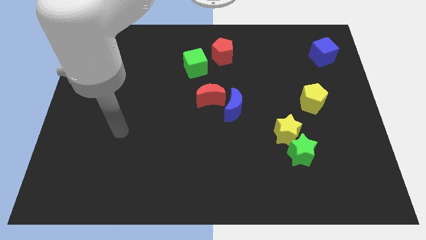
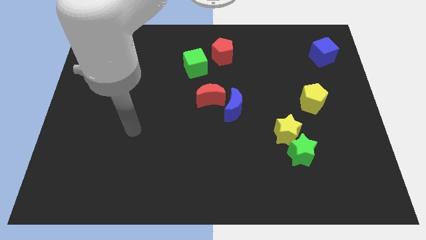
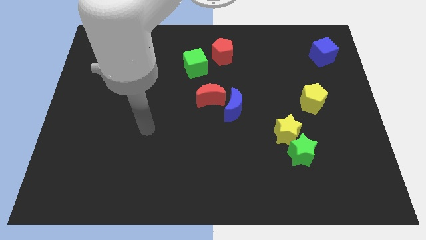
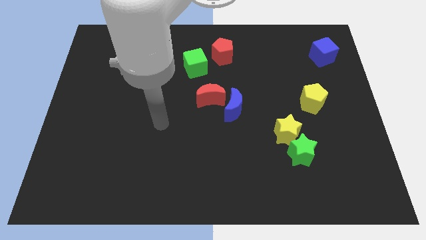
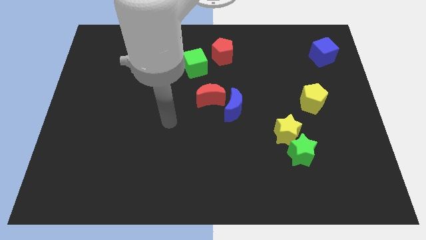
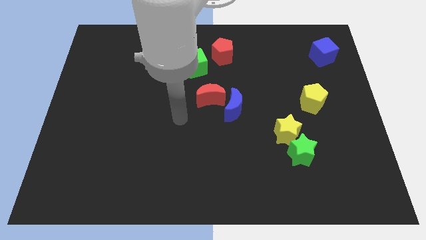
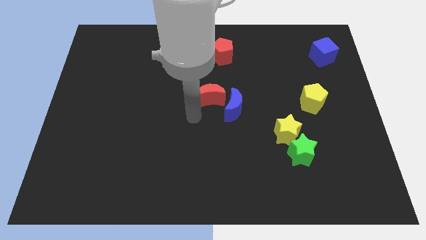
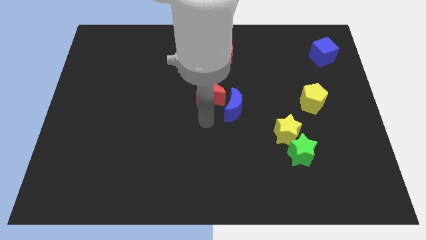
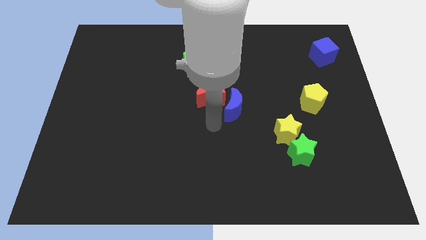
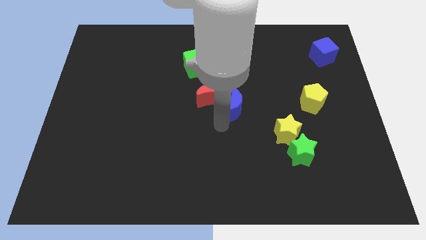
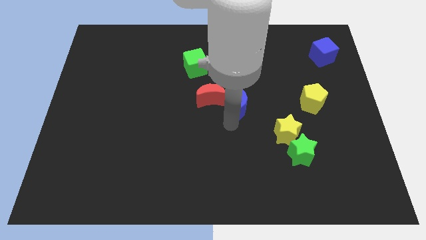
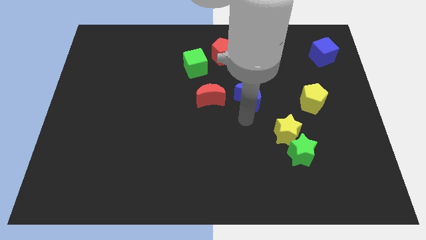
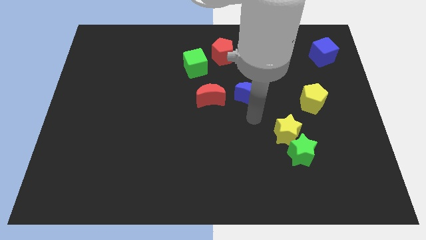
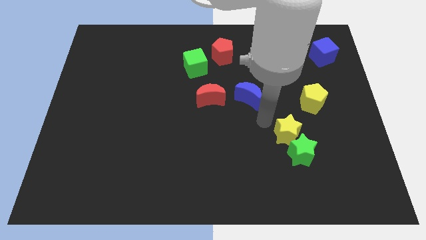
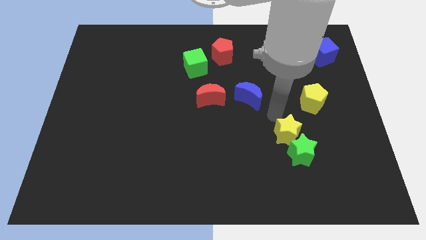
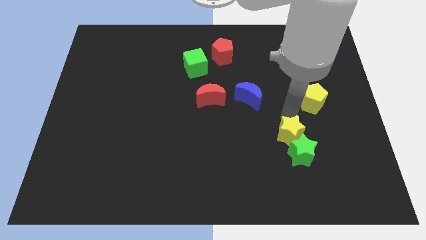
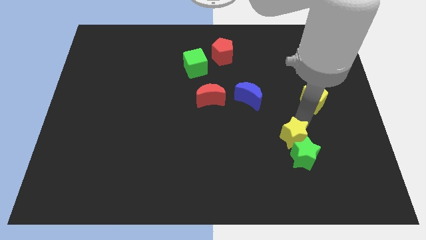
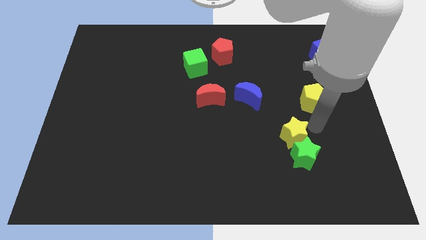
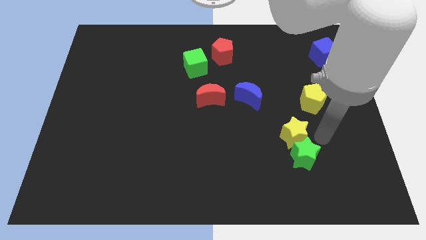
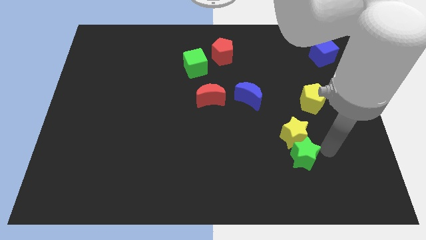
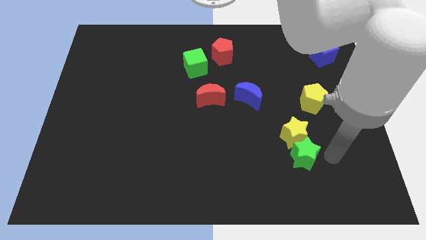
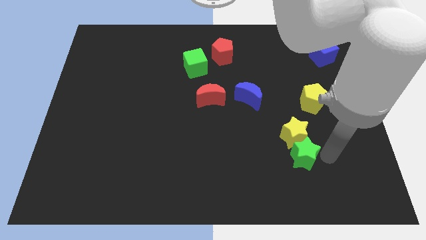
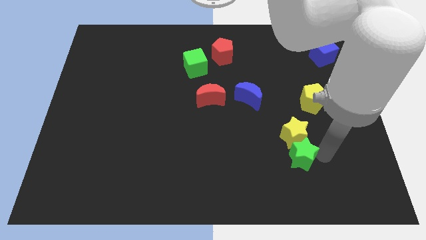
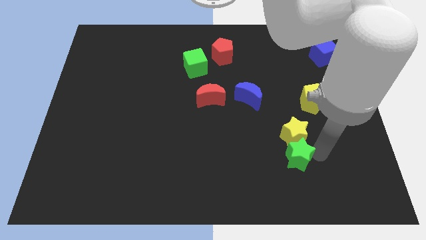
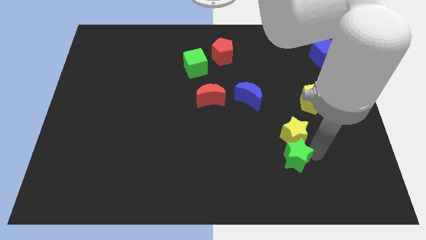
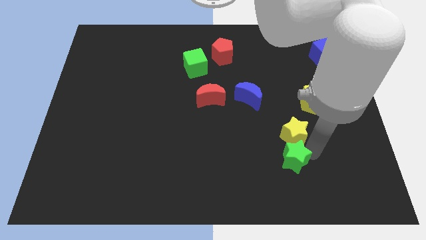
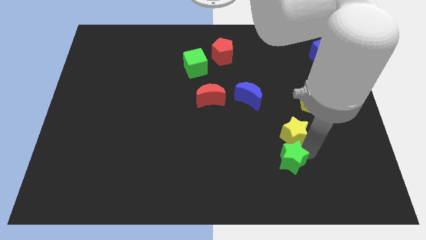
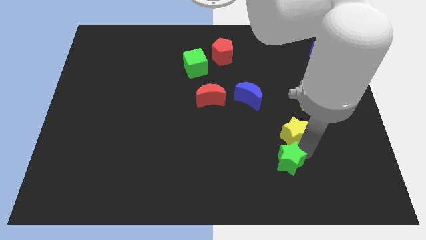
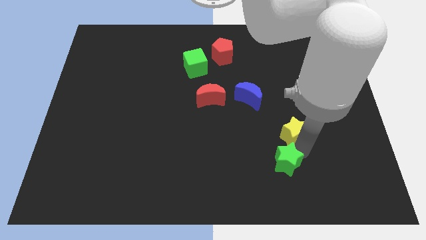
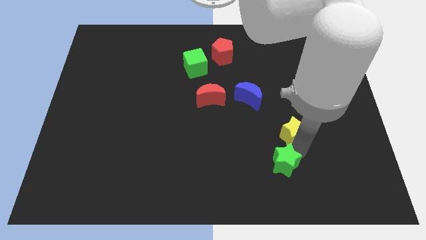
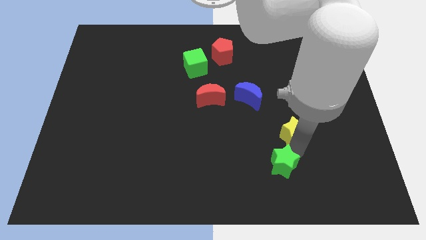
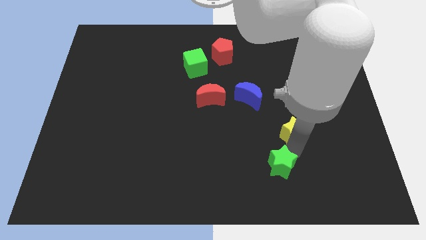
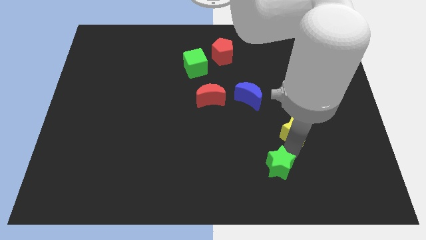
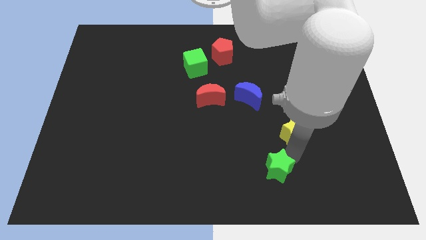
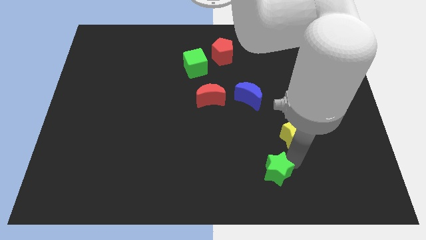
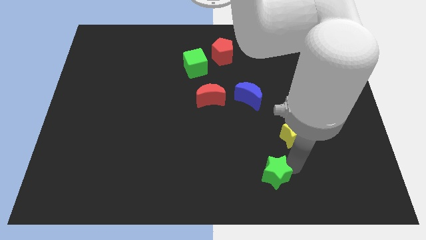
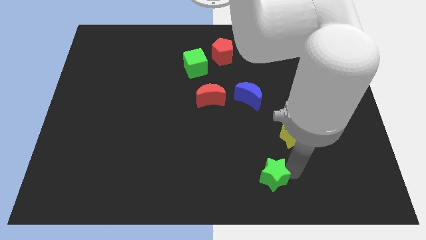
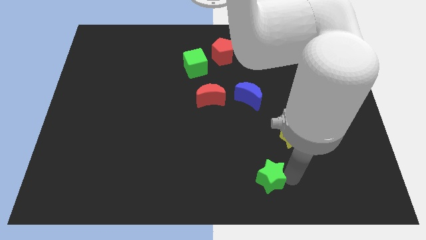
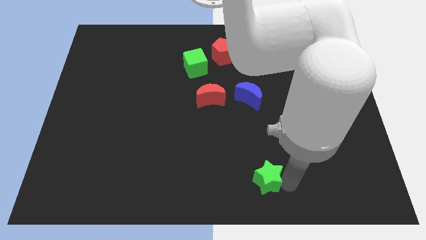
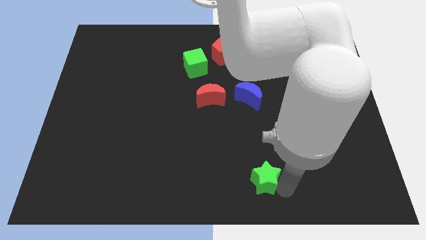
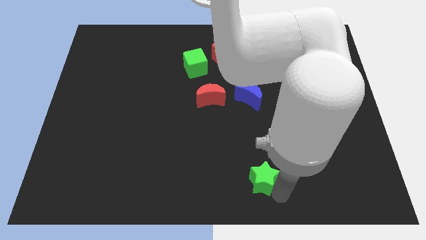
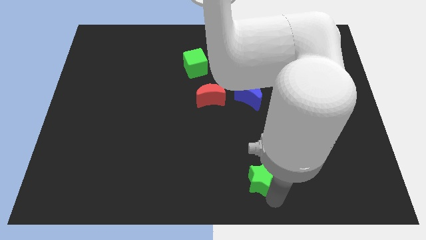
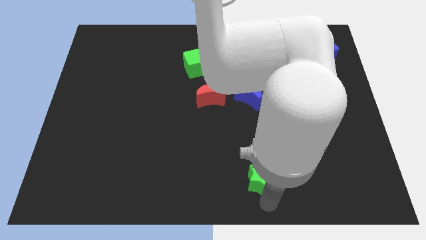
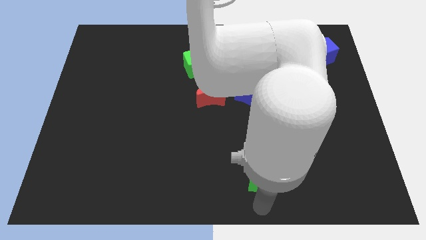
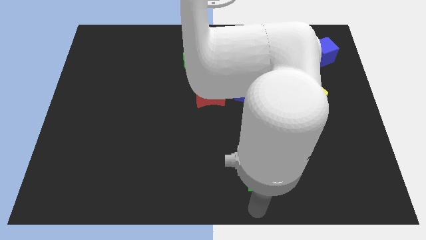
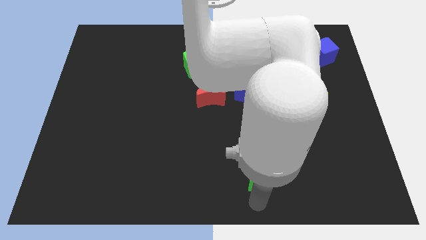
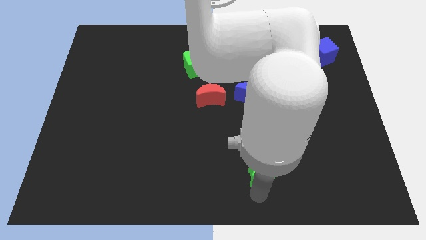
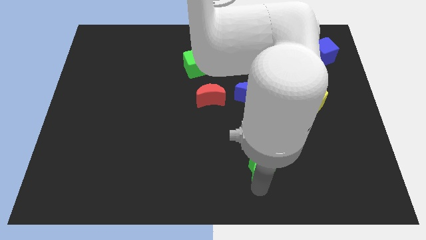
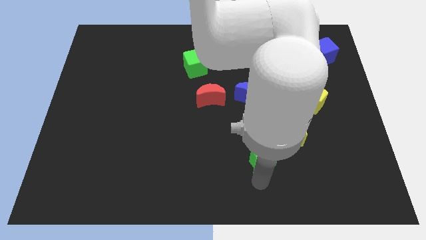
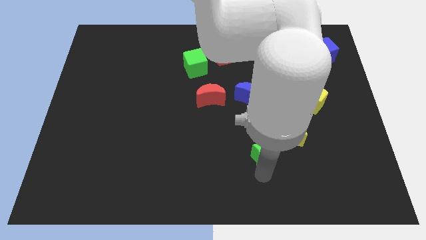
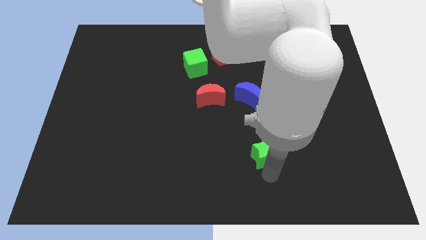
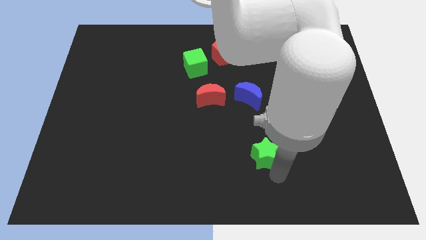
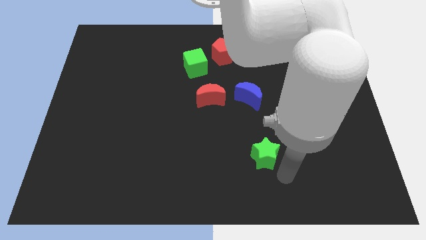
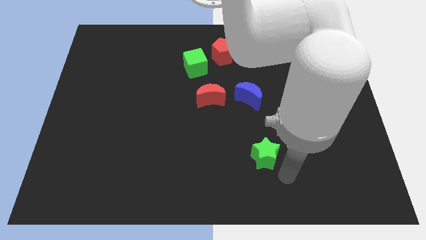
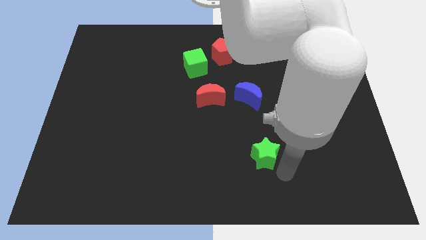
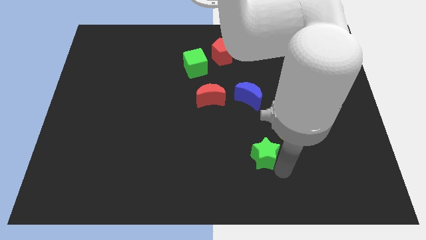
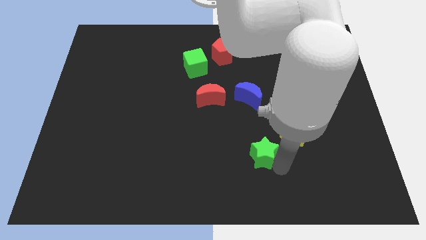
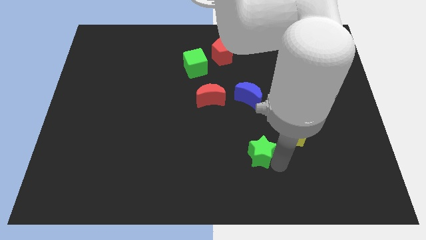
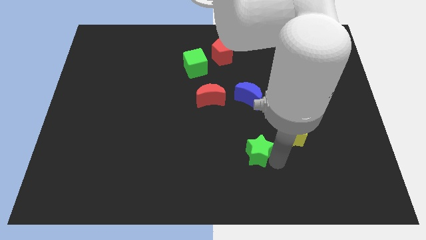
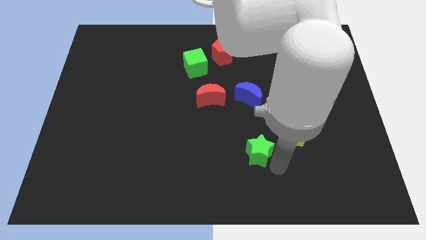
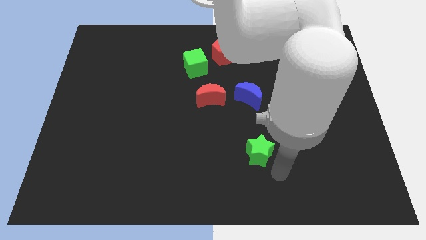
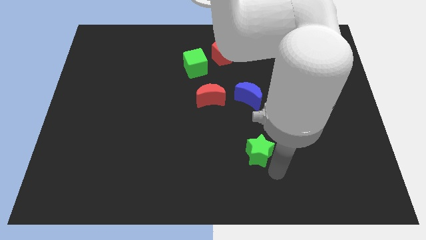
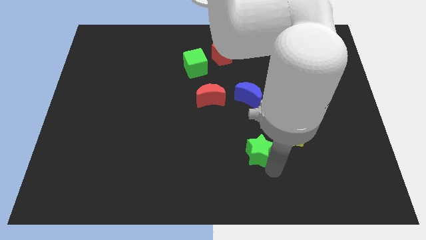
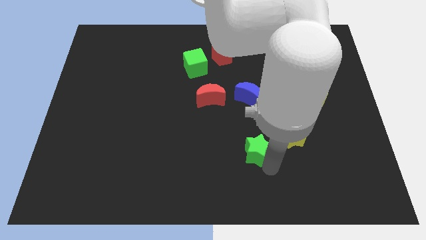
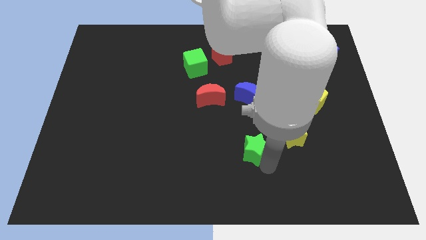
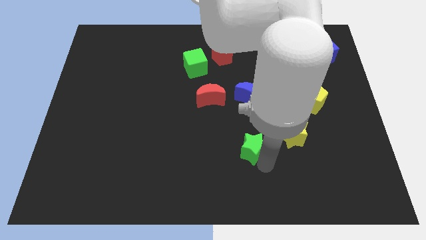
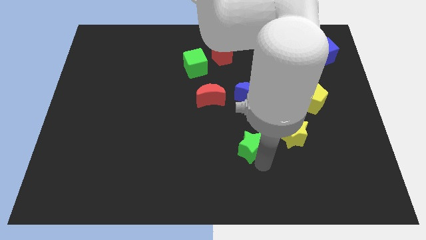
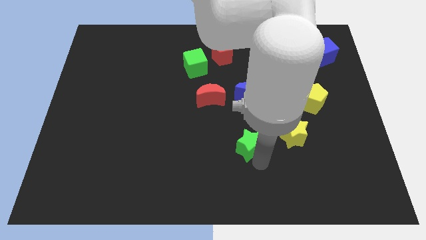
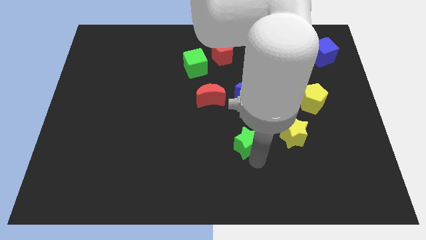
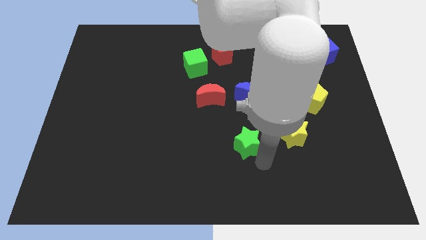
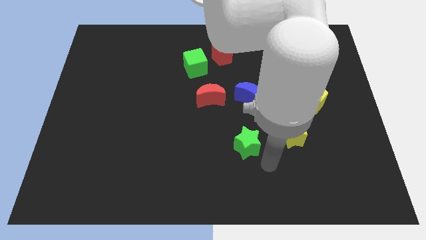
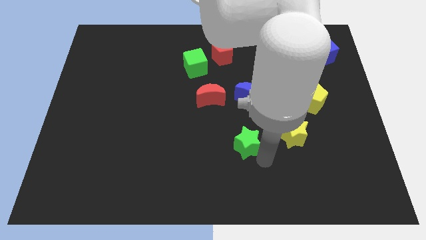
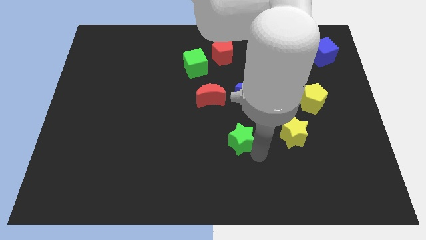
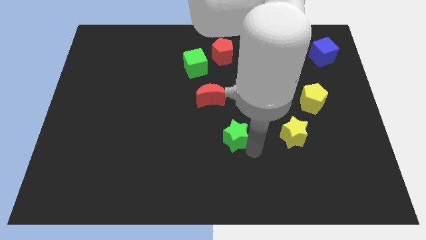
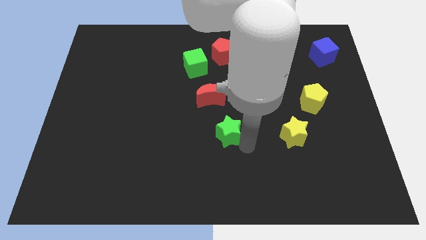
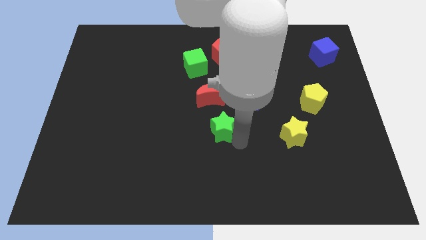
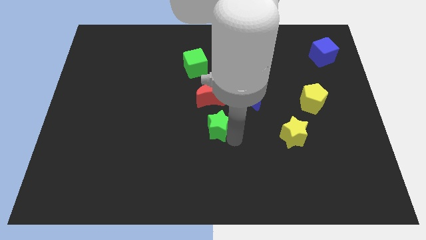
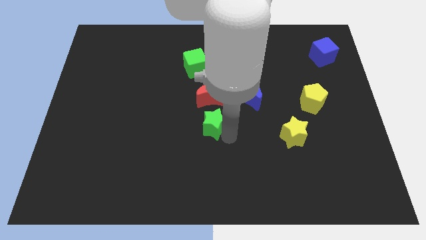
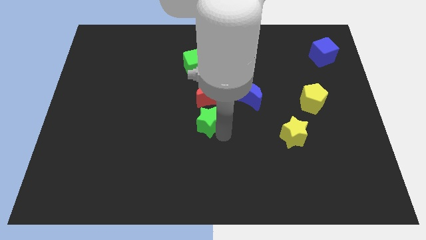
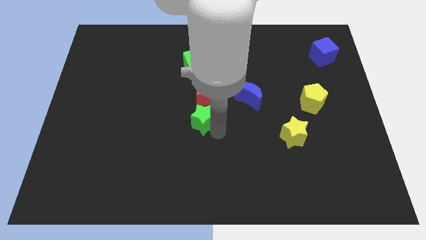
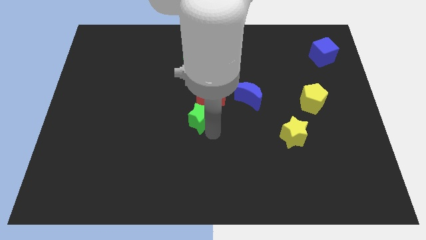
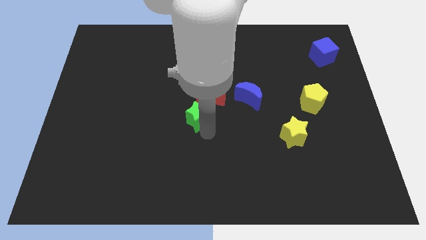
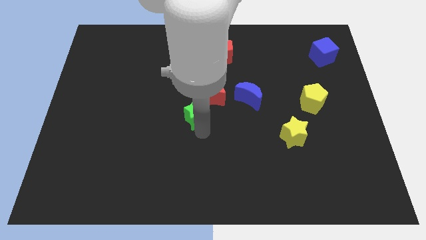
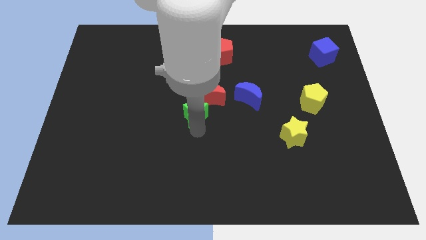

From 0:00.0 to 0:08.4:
move the green star towards the red moon
